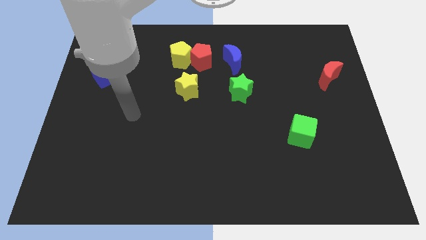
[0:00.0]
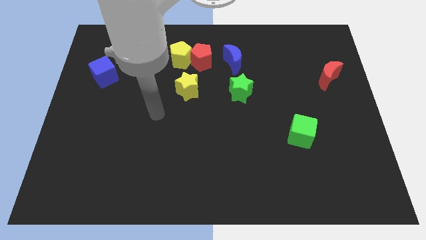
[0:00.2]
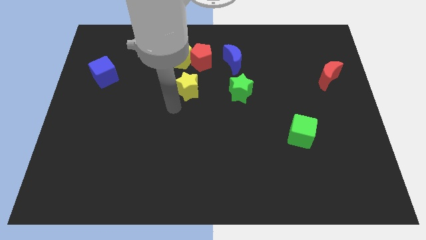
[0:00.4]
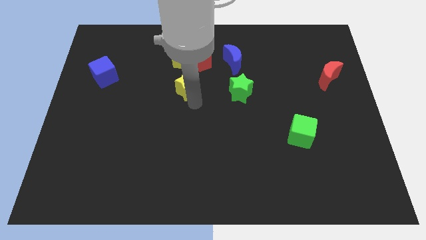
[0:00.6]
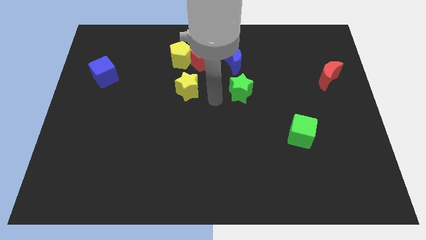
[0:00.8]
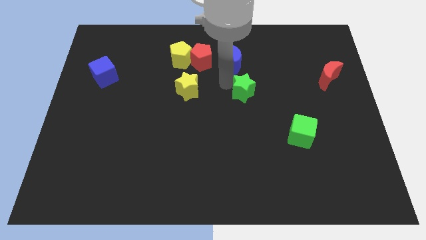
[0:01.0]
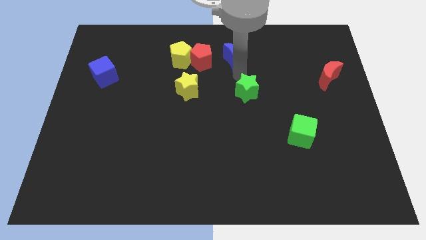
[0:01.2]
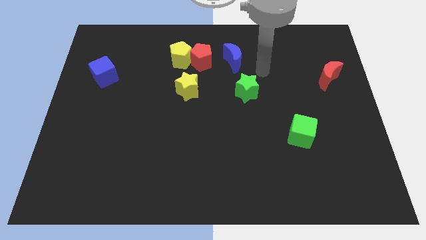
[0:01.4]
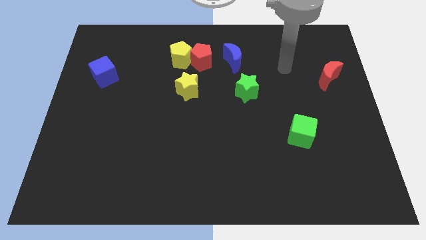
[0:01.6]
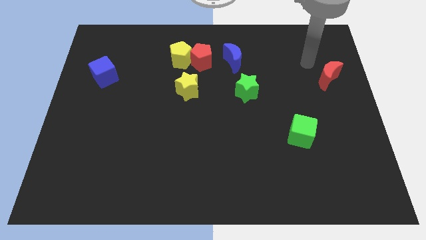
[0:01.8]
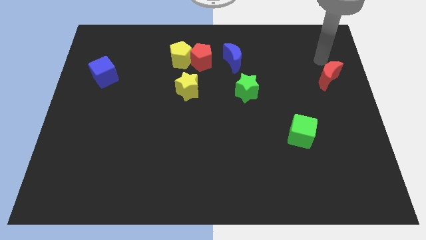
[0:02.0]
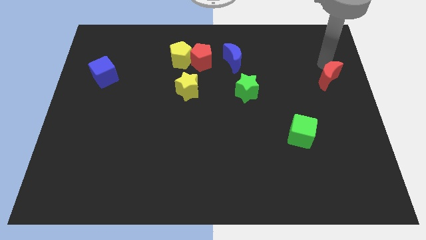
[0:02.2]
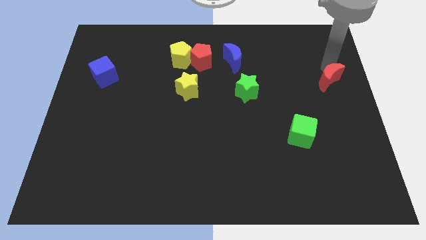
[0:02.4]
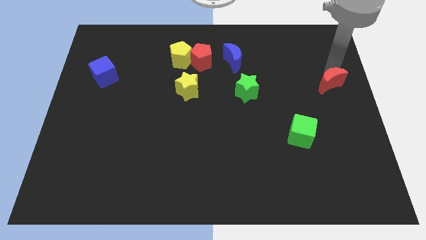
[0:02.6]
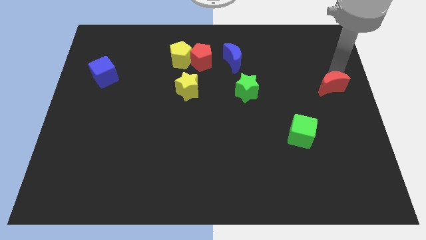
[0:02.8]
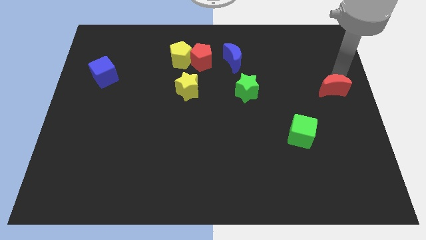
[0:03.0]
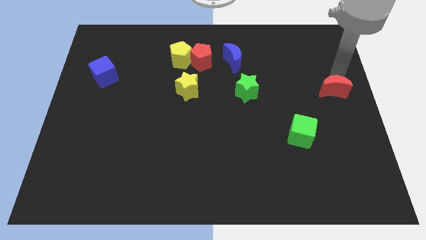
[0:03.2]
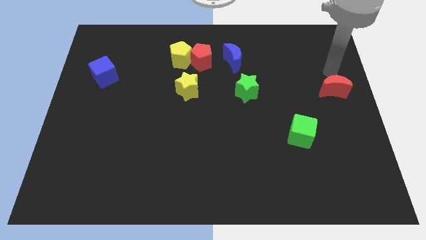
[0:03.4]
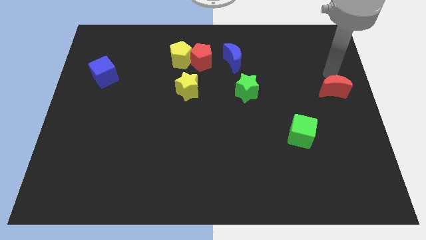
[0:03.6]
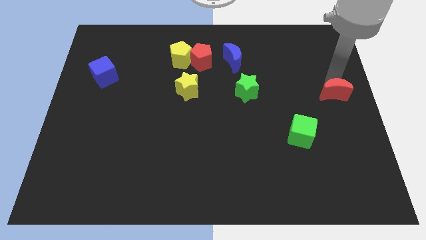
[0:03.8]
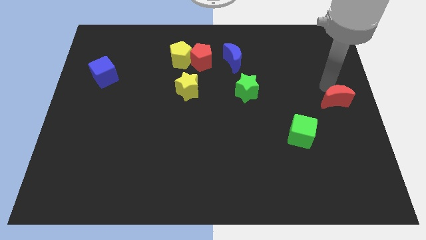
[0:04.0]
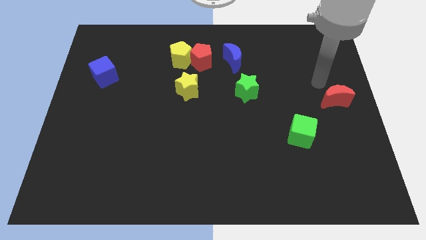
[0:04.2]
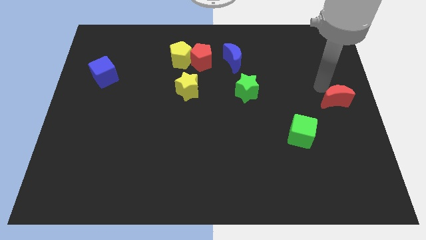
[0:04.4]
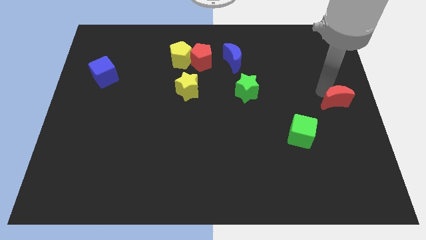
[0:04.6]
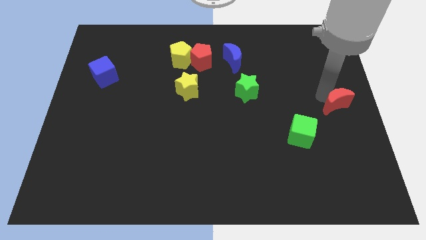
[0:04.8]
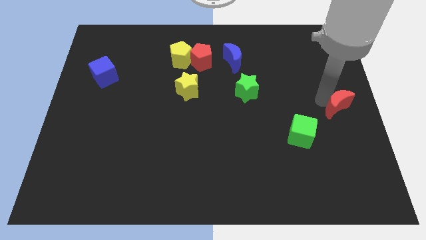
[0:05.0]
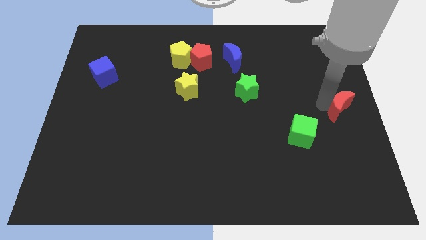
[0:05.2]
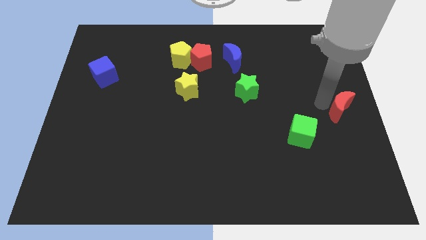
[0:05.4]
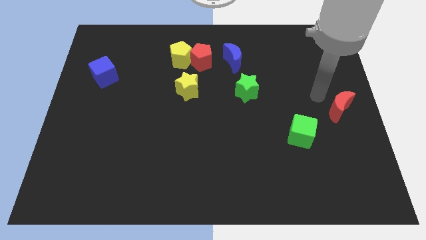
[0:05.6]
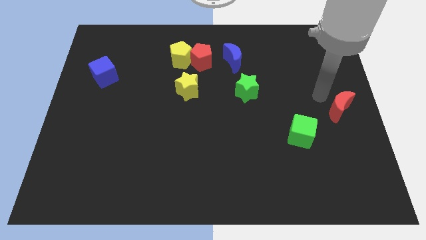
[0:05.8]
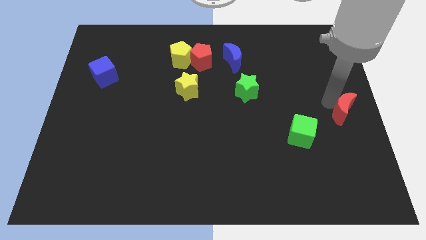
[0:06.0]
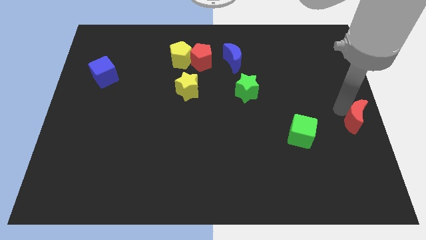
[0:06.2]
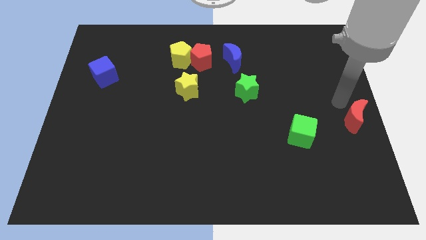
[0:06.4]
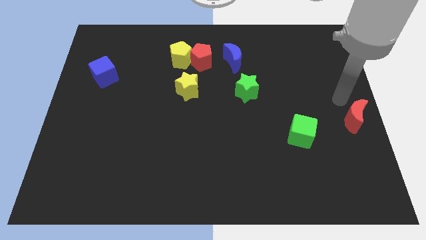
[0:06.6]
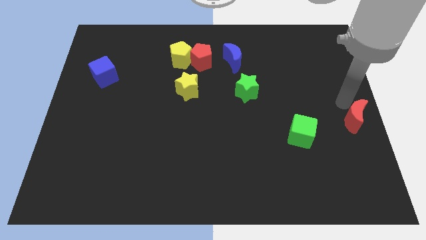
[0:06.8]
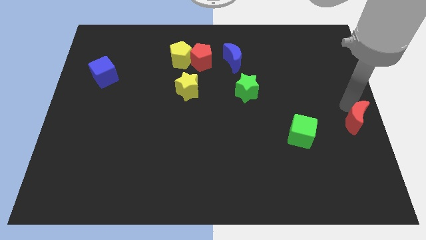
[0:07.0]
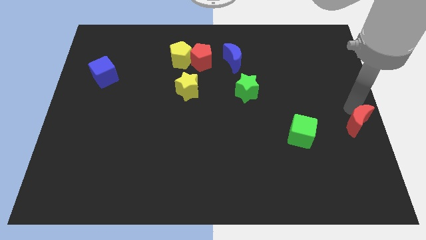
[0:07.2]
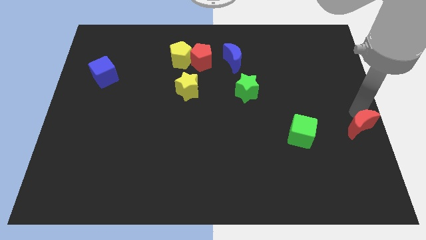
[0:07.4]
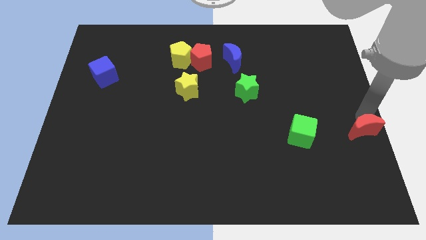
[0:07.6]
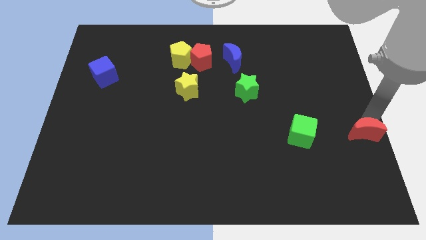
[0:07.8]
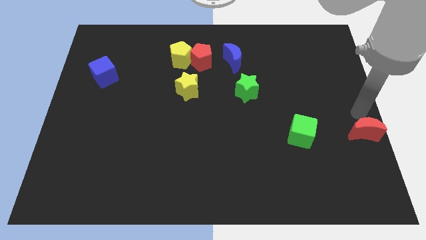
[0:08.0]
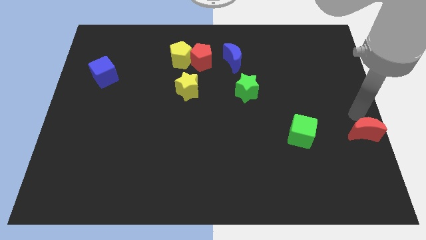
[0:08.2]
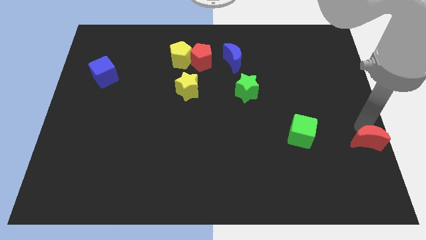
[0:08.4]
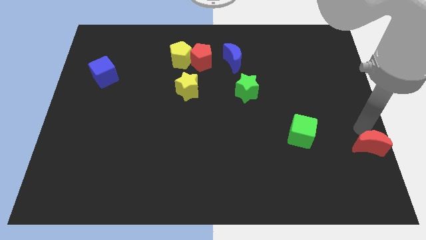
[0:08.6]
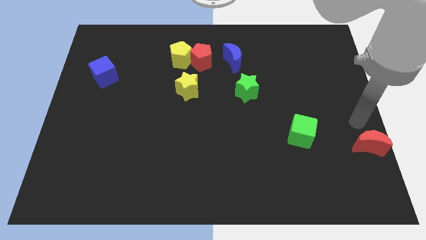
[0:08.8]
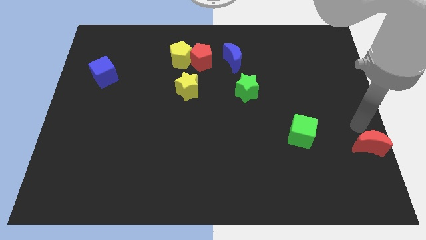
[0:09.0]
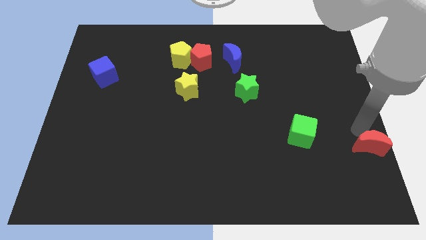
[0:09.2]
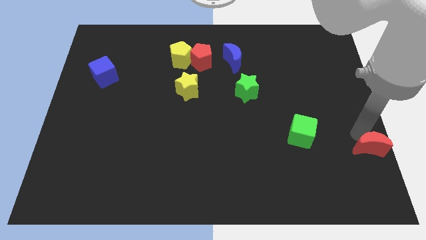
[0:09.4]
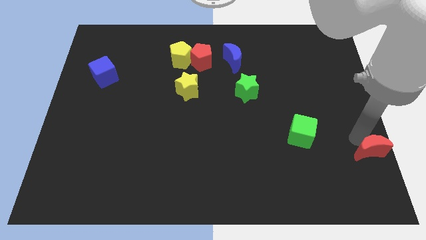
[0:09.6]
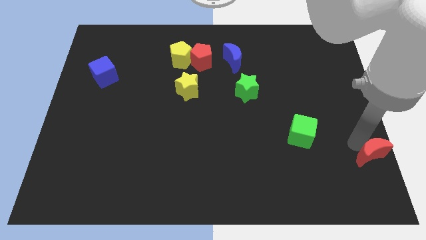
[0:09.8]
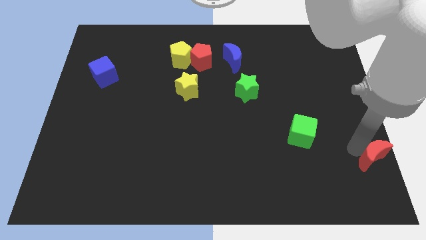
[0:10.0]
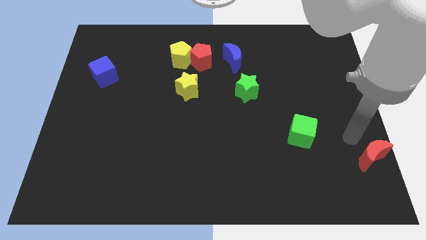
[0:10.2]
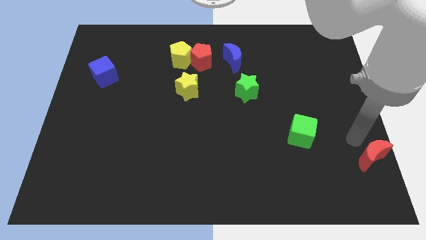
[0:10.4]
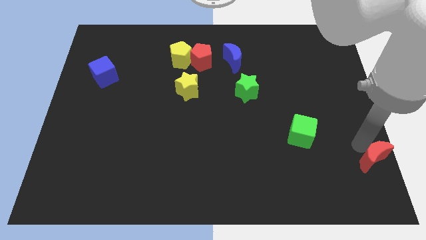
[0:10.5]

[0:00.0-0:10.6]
put the red moon to the lower right corner
